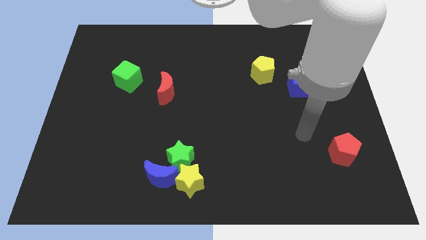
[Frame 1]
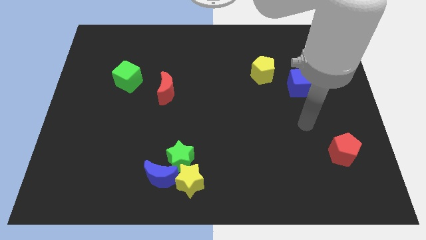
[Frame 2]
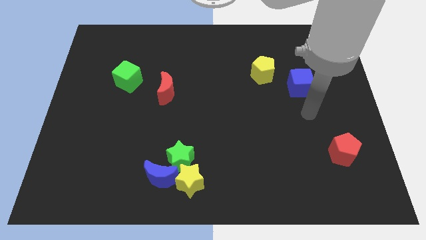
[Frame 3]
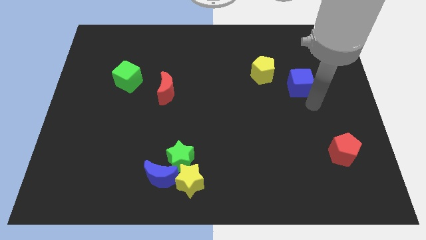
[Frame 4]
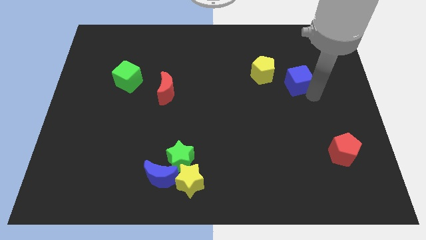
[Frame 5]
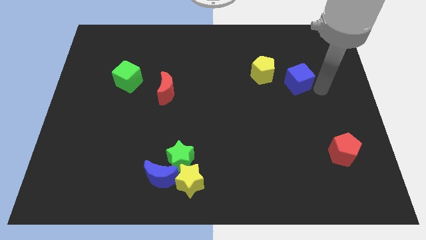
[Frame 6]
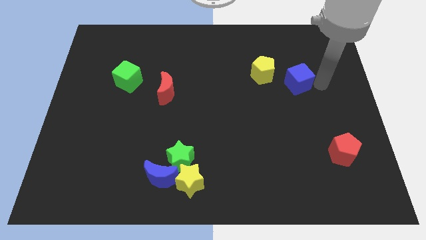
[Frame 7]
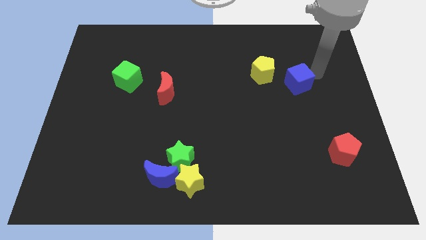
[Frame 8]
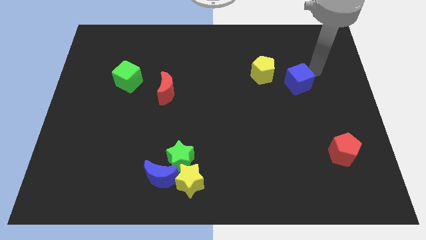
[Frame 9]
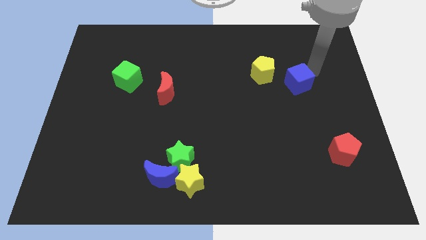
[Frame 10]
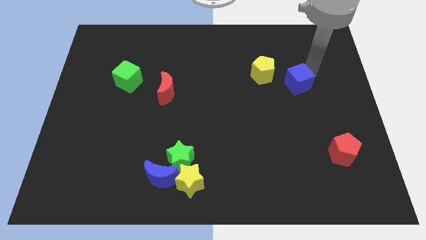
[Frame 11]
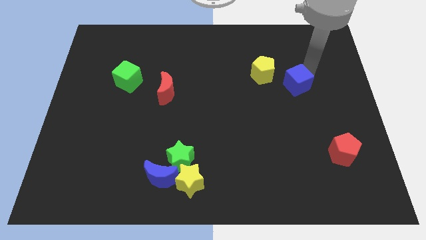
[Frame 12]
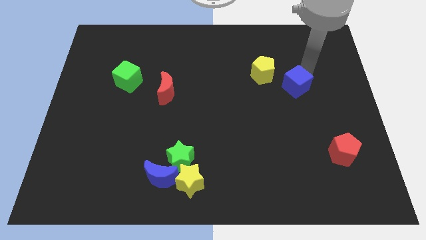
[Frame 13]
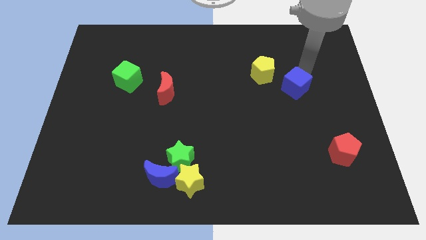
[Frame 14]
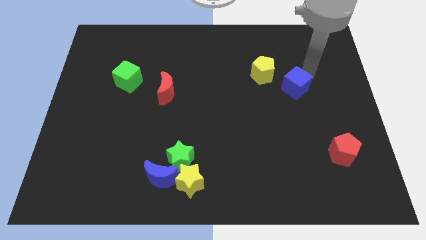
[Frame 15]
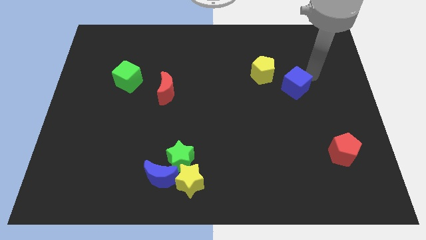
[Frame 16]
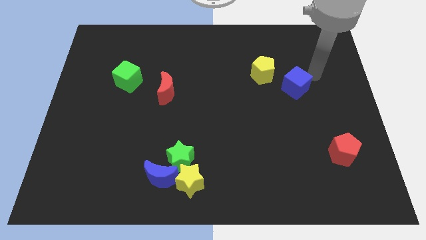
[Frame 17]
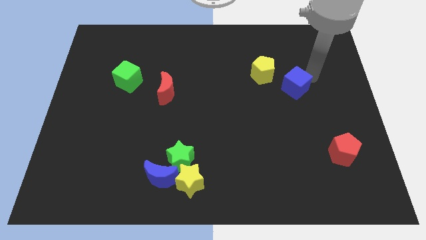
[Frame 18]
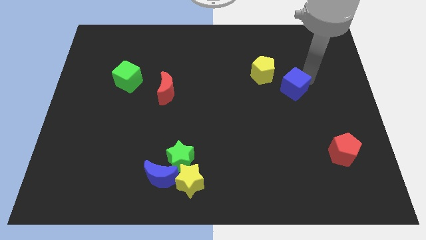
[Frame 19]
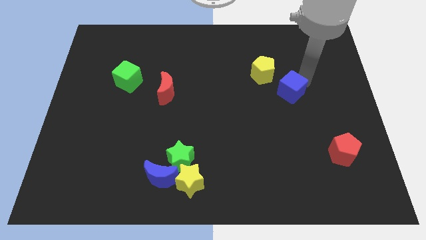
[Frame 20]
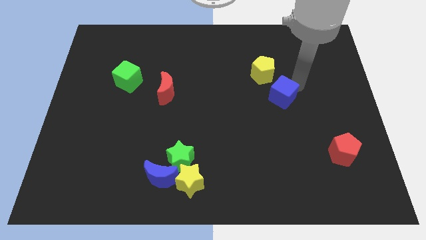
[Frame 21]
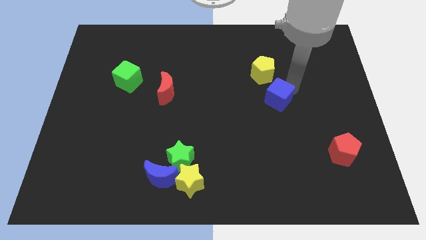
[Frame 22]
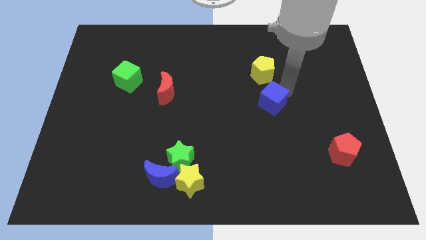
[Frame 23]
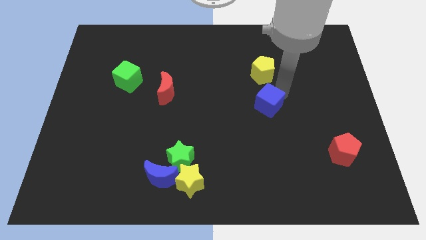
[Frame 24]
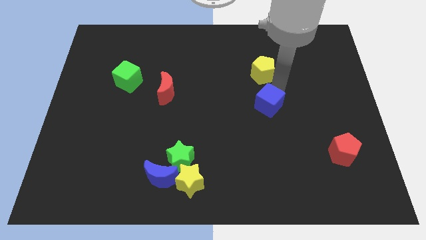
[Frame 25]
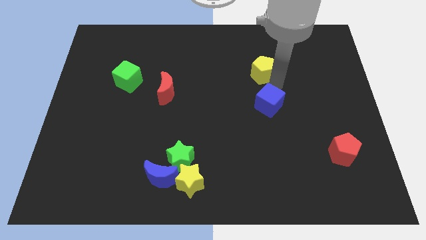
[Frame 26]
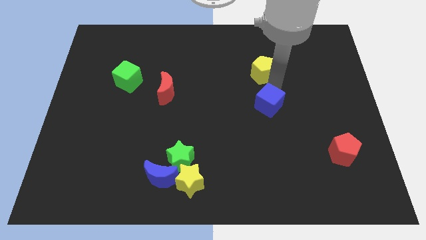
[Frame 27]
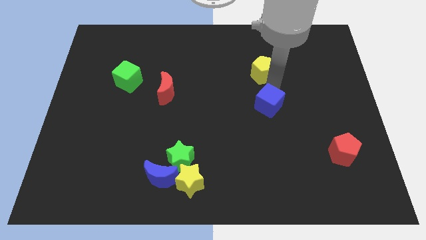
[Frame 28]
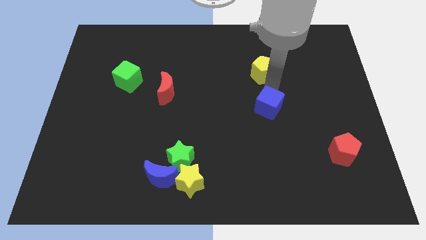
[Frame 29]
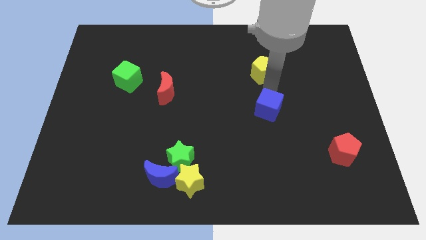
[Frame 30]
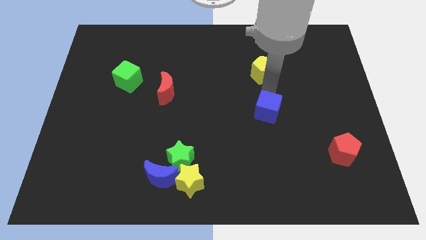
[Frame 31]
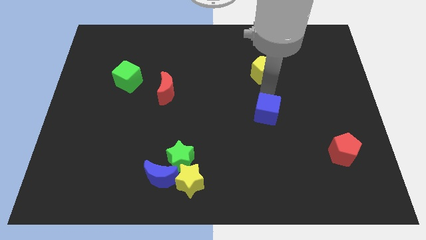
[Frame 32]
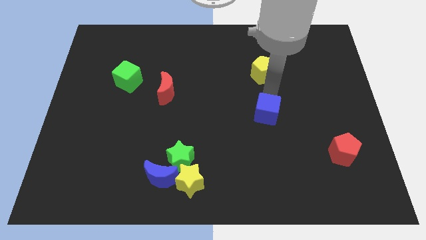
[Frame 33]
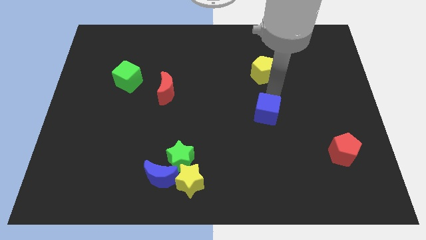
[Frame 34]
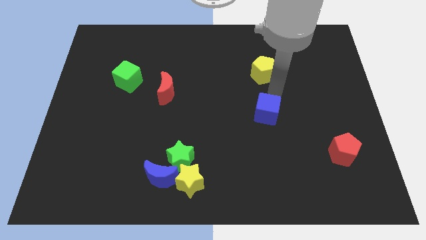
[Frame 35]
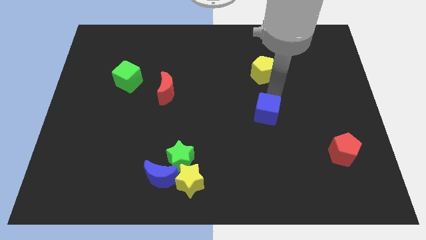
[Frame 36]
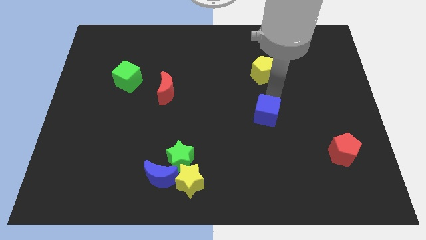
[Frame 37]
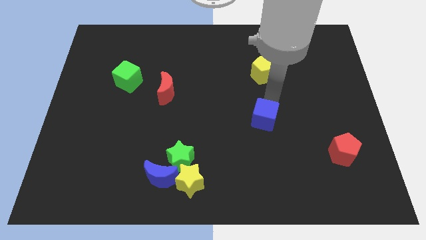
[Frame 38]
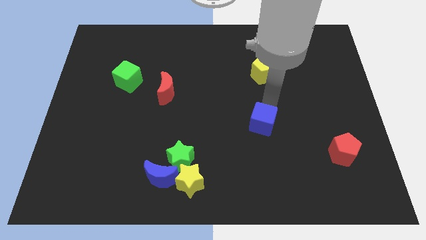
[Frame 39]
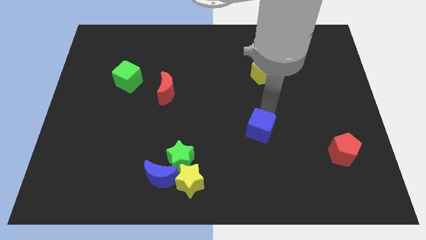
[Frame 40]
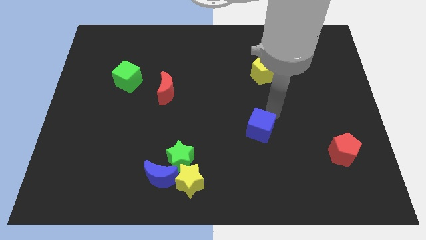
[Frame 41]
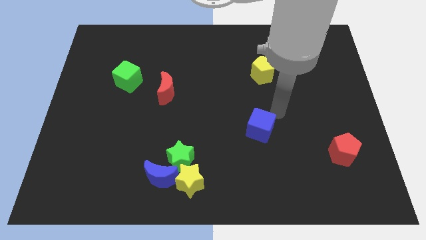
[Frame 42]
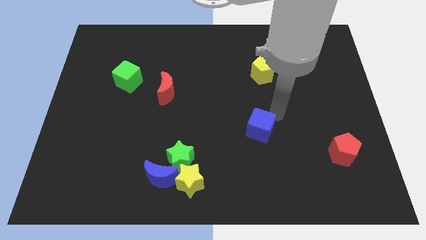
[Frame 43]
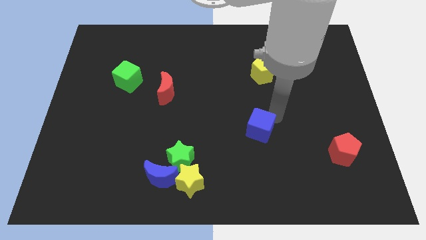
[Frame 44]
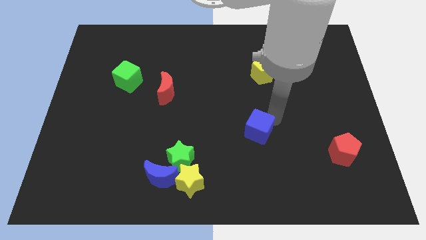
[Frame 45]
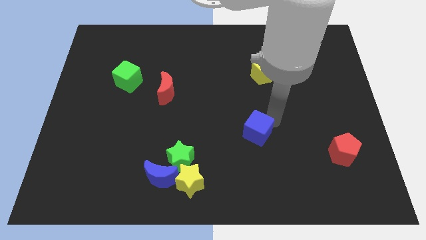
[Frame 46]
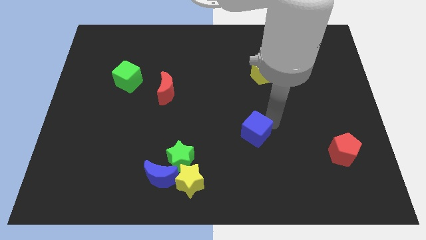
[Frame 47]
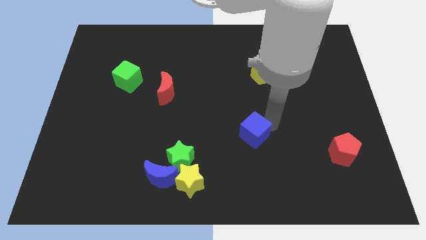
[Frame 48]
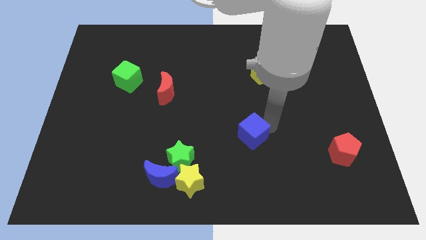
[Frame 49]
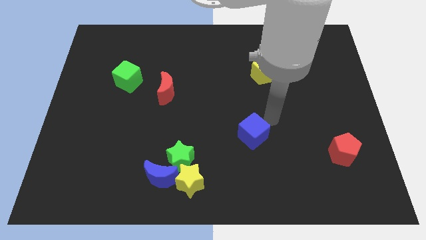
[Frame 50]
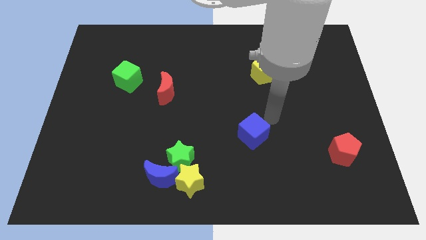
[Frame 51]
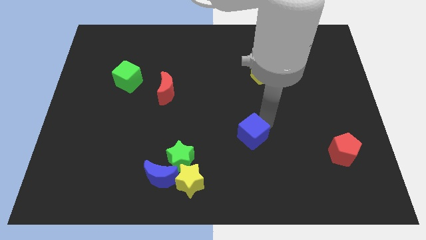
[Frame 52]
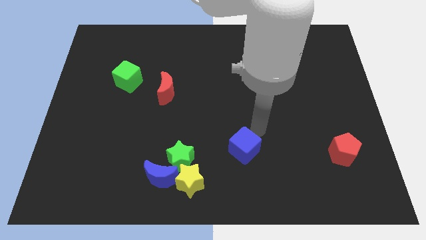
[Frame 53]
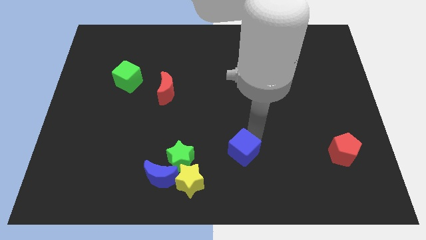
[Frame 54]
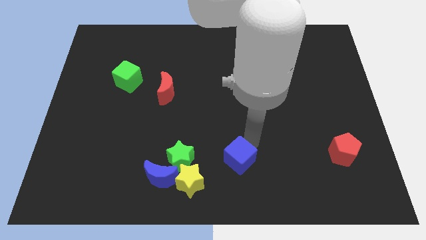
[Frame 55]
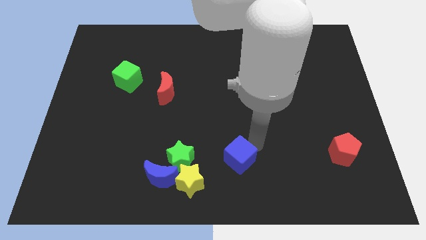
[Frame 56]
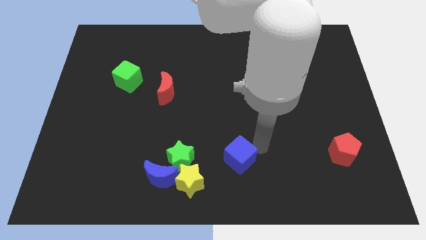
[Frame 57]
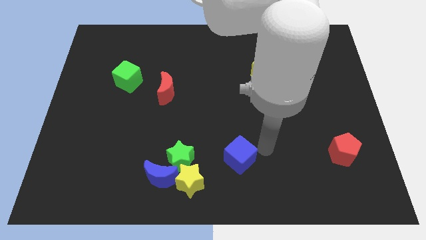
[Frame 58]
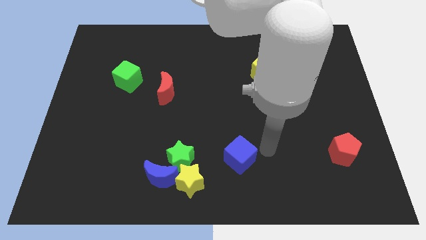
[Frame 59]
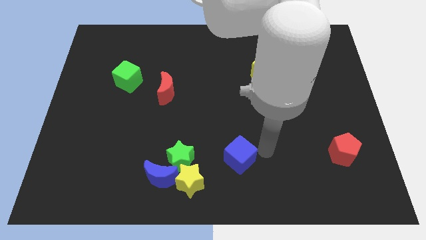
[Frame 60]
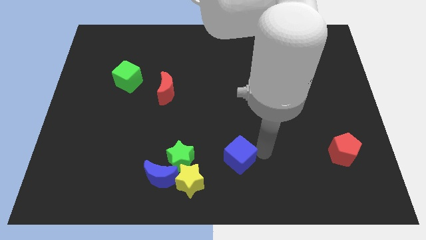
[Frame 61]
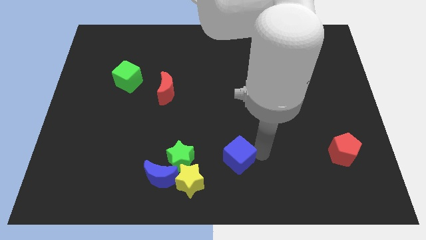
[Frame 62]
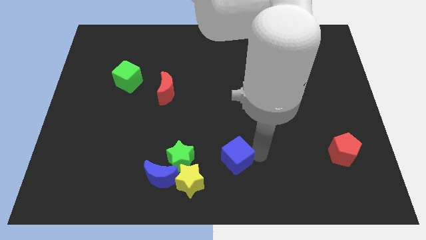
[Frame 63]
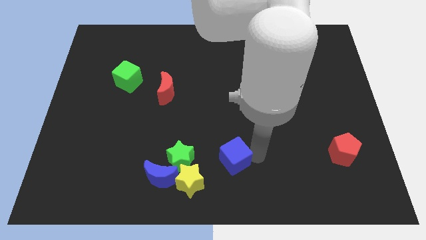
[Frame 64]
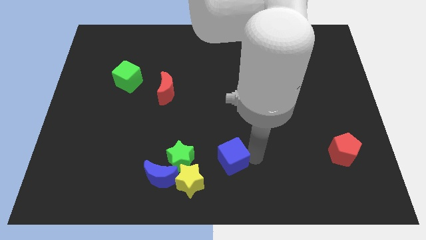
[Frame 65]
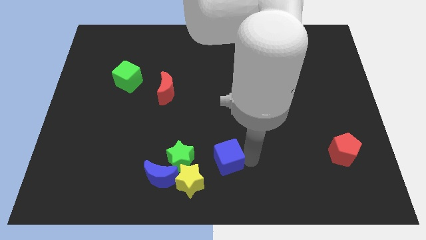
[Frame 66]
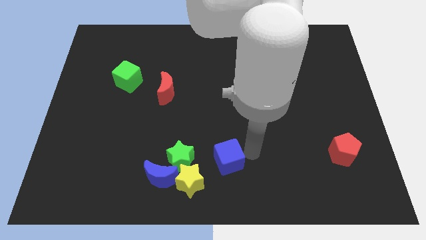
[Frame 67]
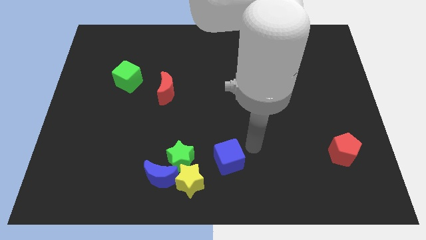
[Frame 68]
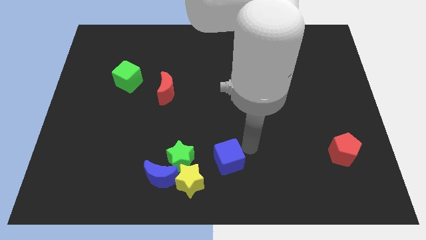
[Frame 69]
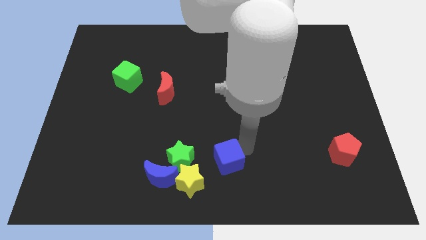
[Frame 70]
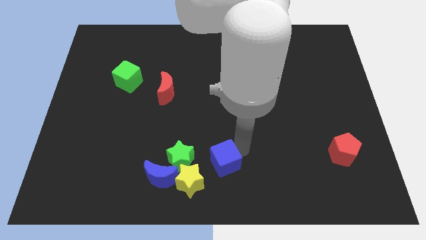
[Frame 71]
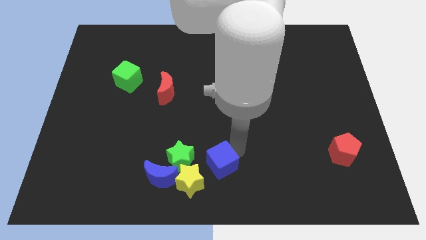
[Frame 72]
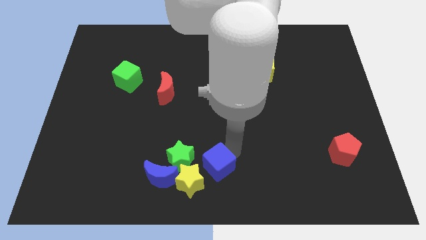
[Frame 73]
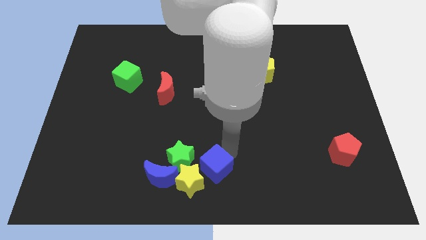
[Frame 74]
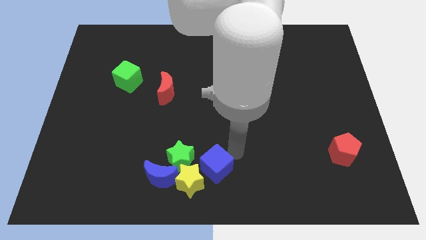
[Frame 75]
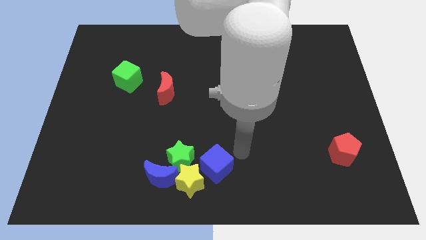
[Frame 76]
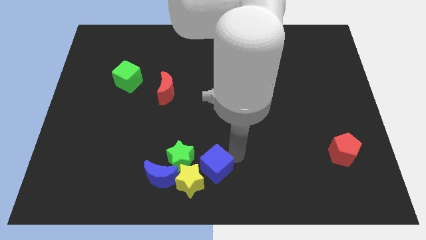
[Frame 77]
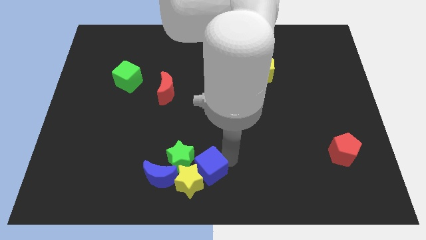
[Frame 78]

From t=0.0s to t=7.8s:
push the blue cube towards the yellow star
